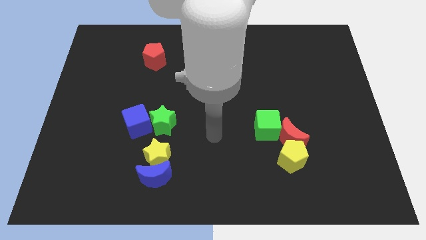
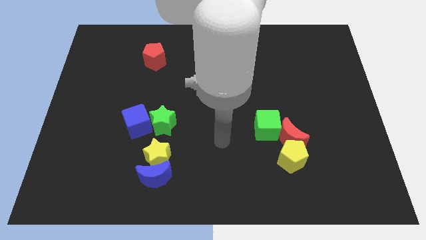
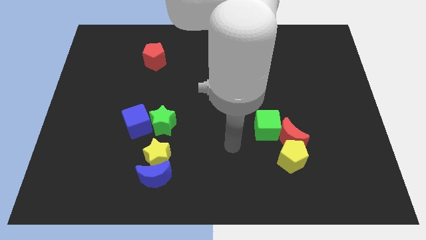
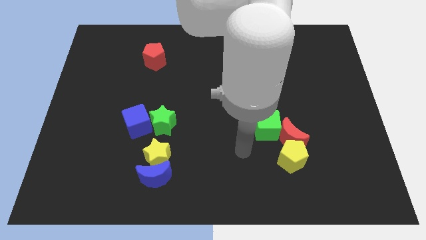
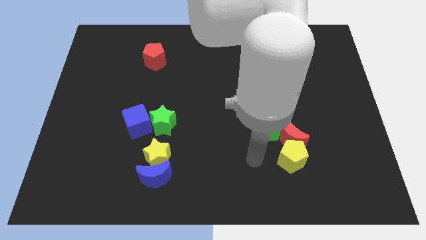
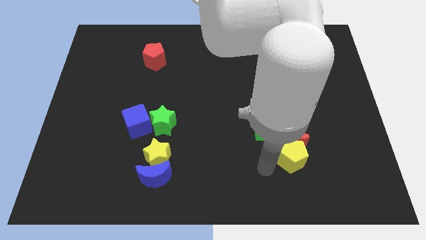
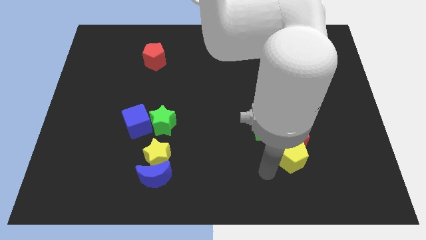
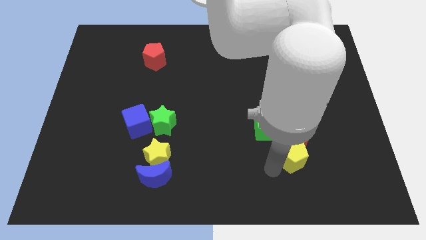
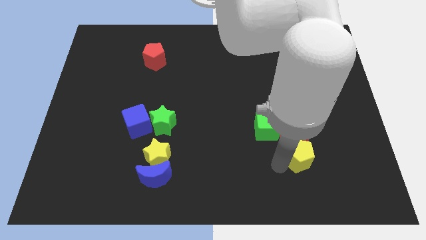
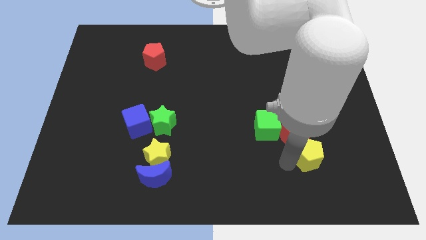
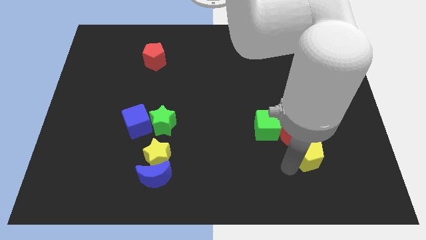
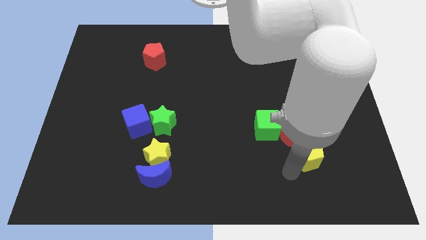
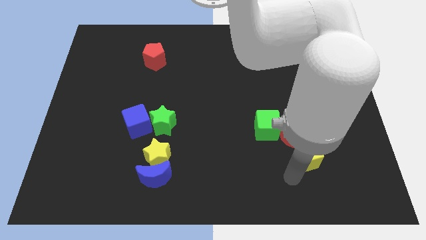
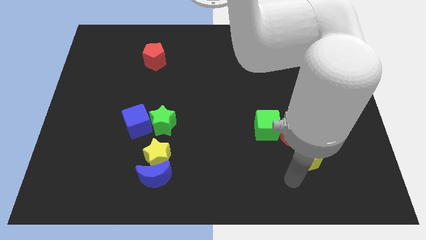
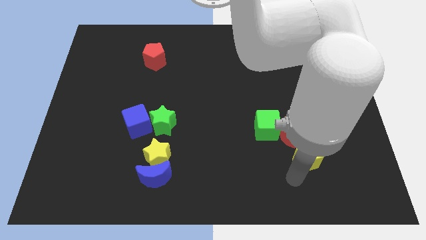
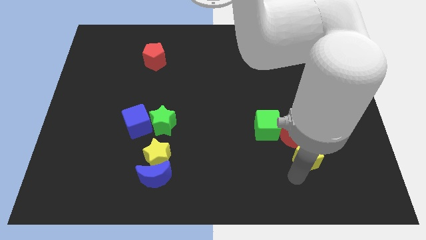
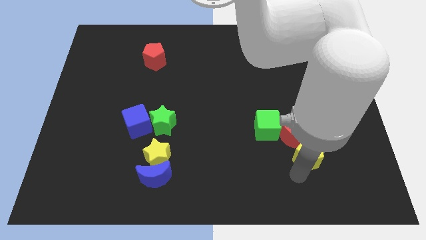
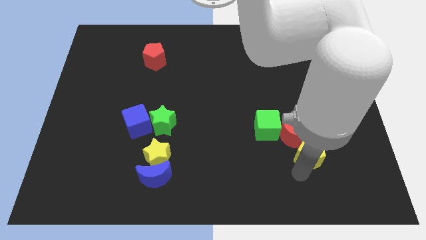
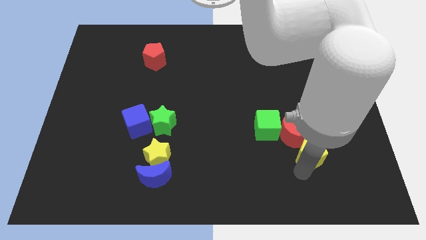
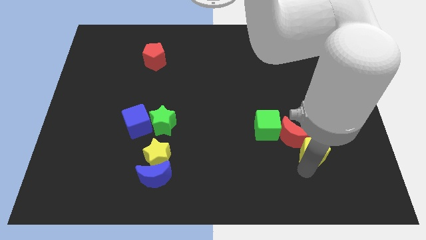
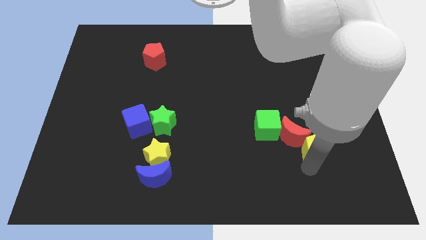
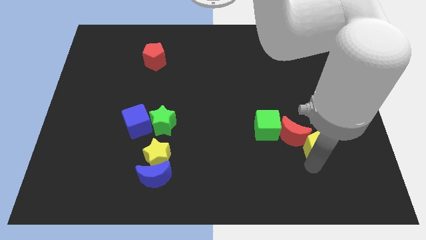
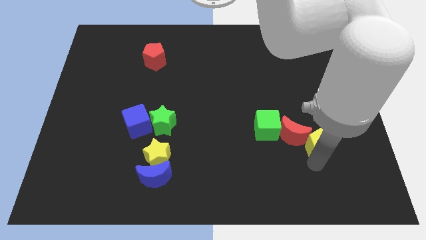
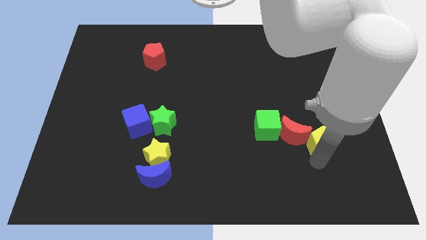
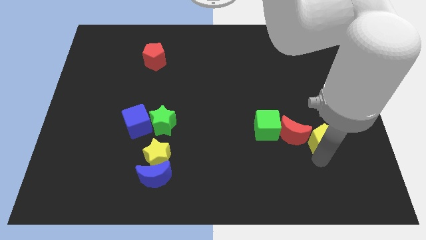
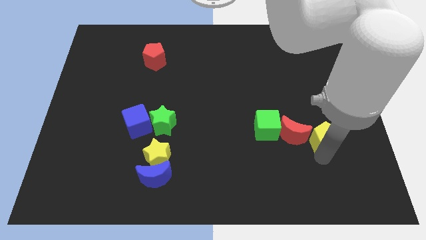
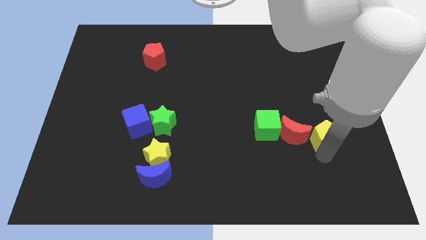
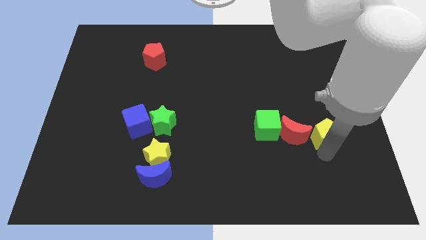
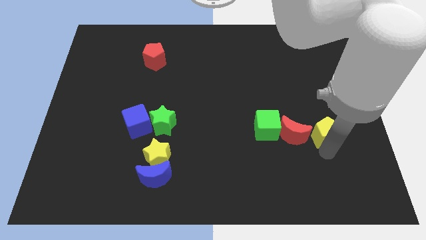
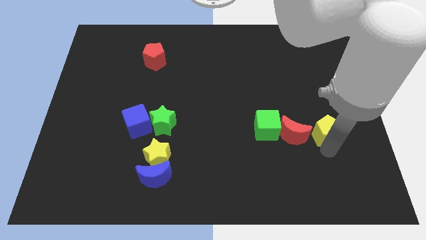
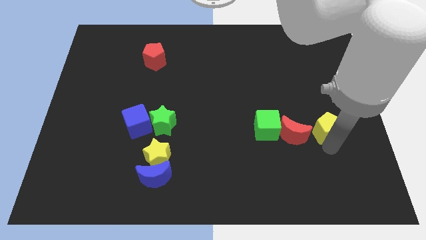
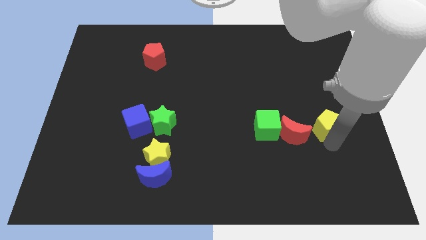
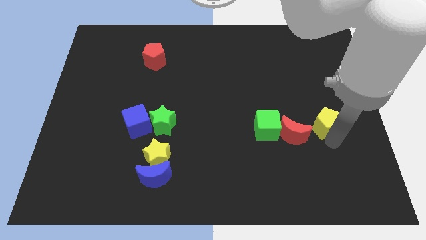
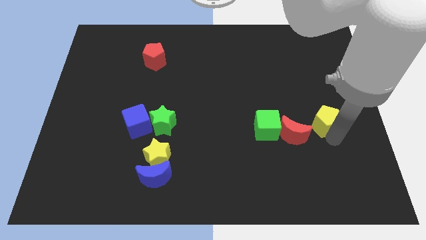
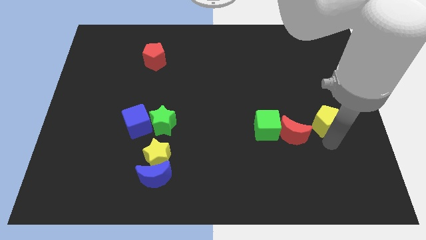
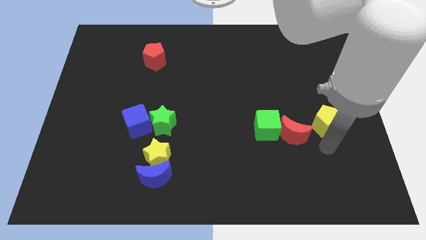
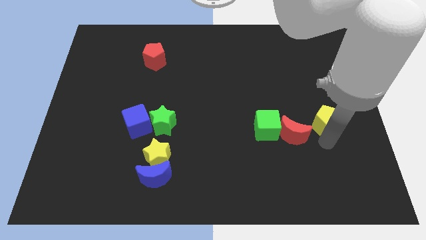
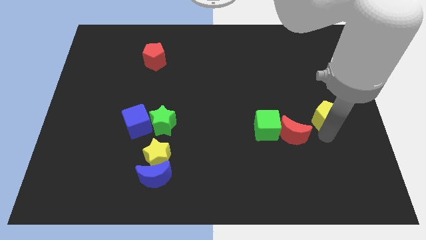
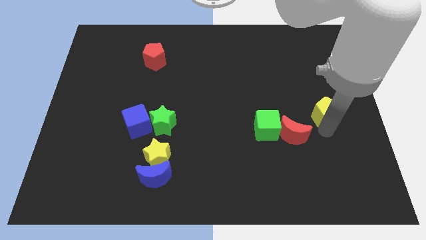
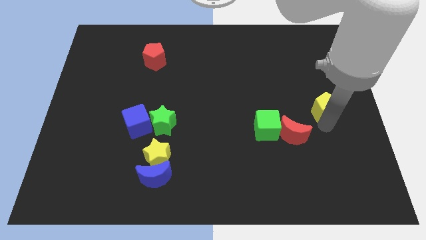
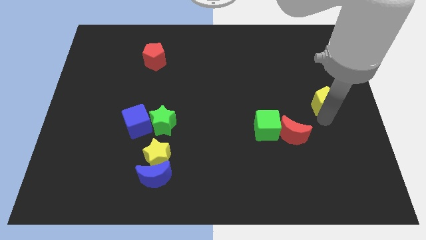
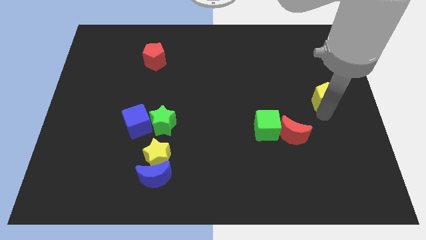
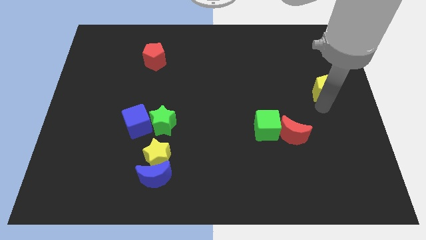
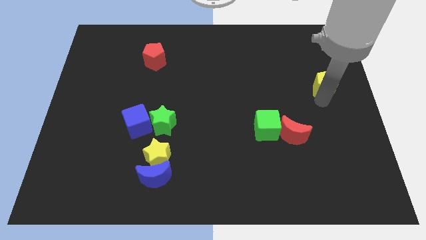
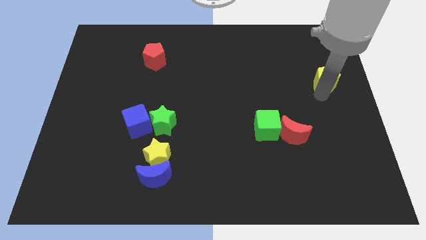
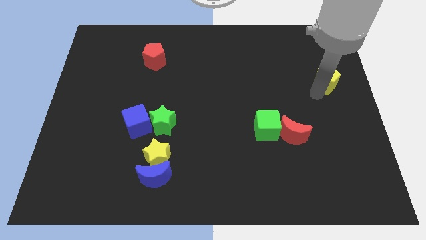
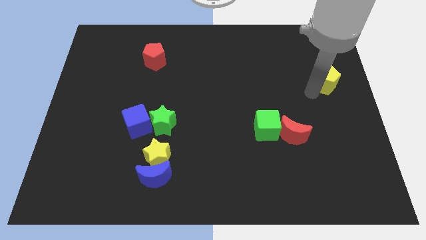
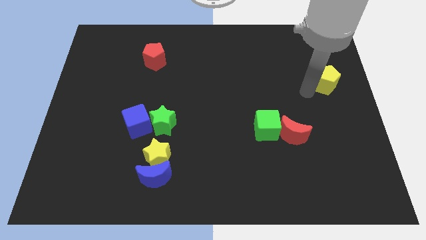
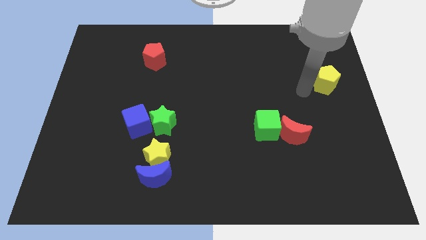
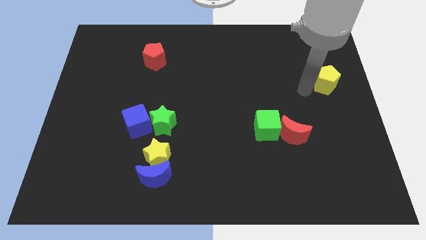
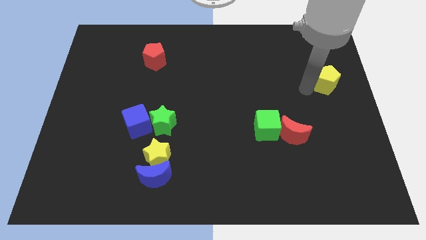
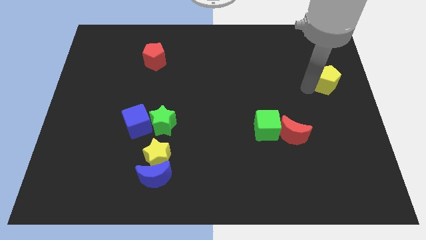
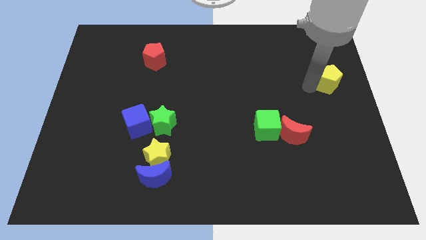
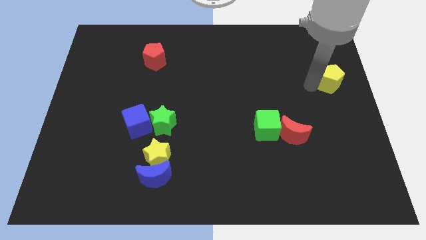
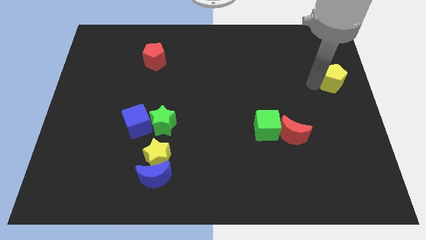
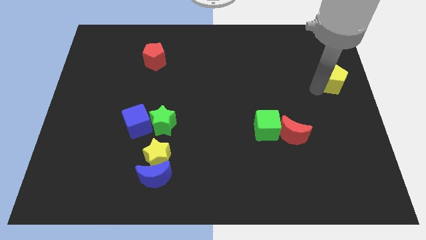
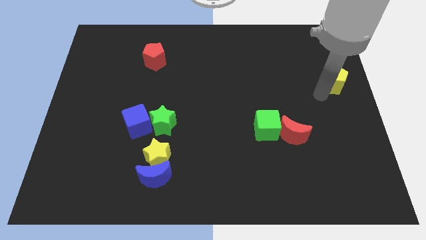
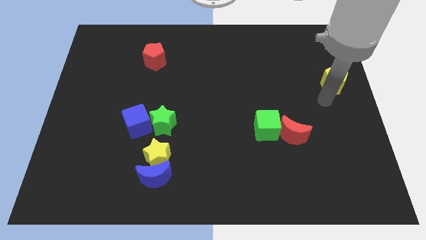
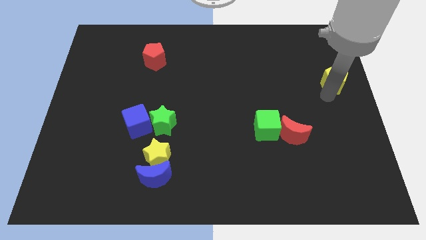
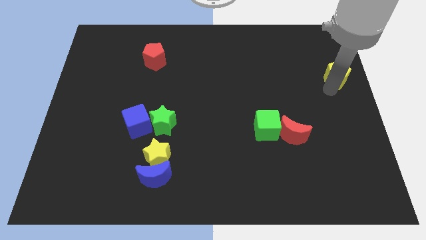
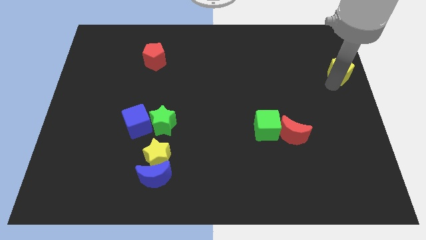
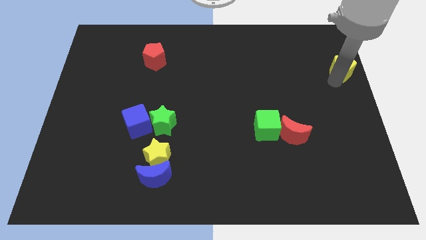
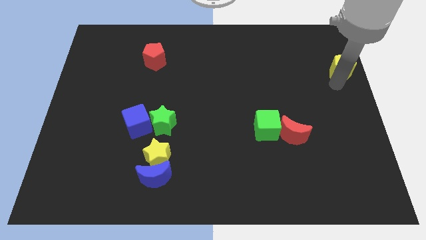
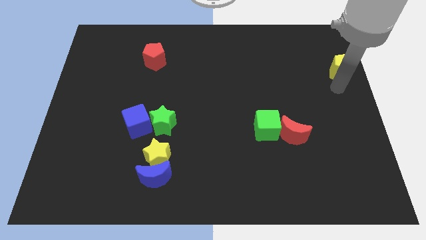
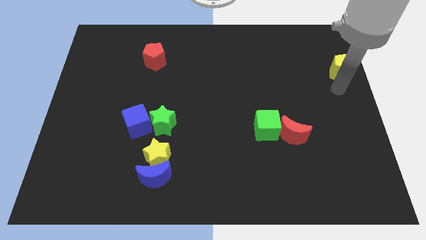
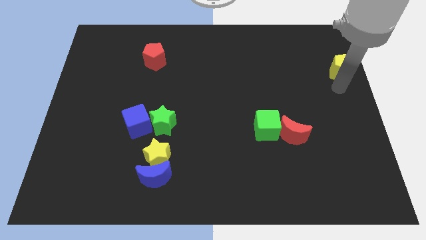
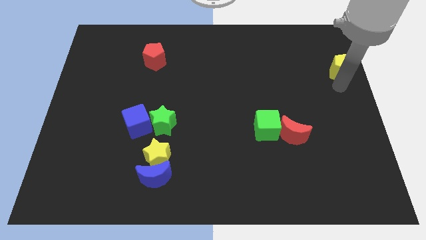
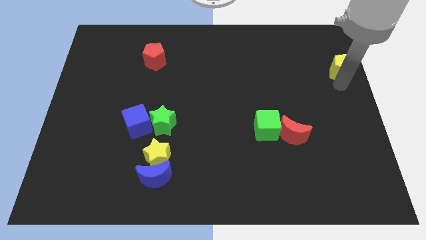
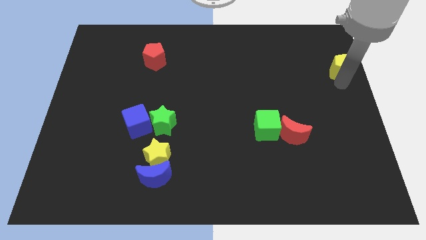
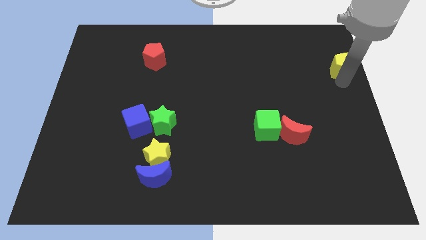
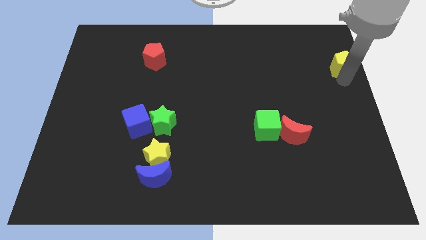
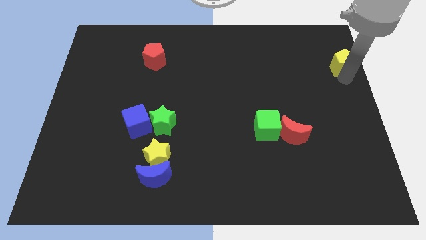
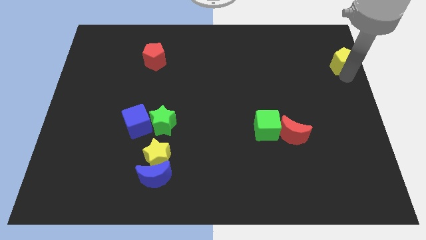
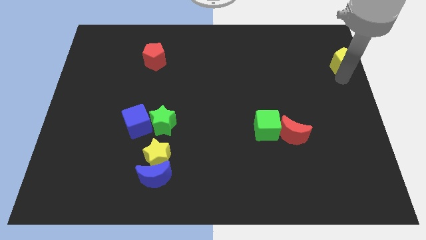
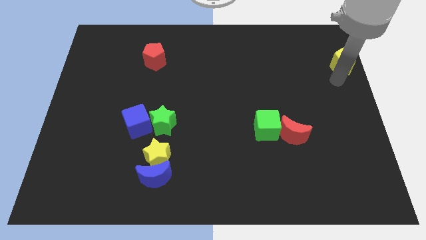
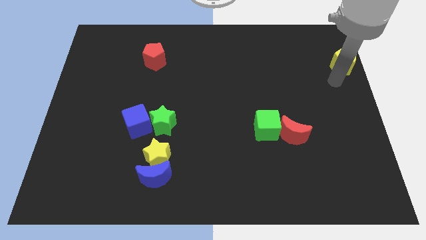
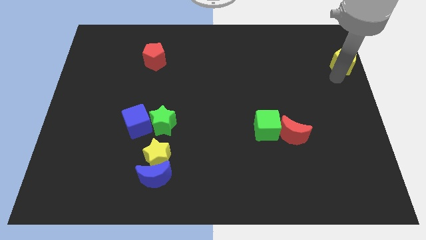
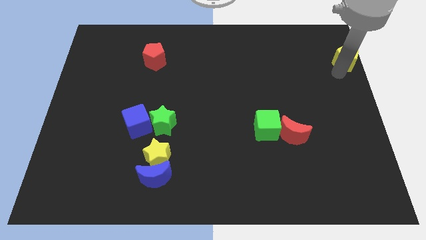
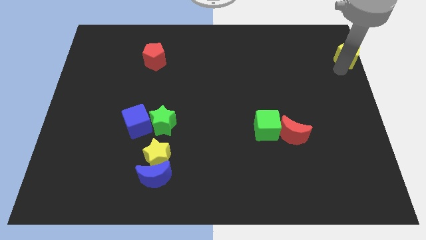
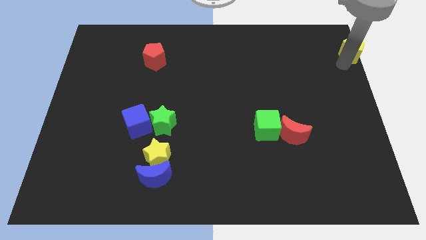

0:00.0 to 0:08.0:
slide the yellow pentagon to the upper right corner
